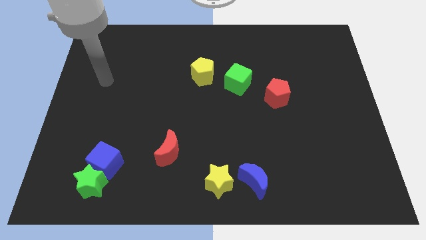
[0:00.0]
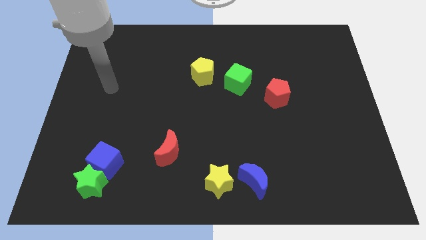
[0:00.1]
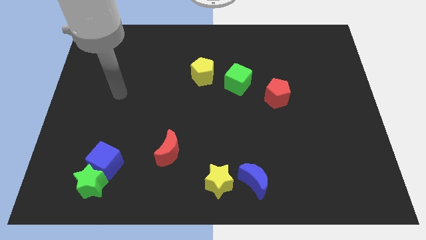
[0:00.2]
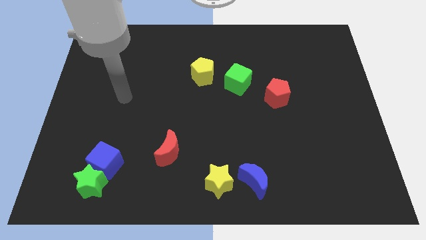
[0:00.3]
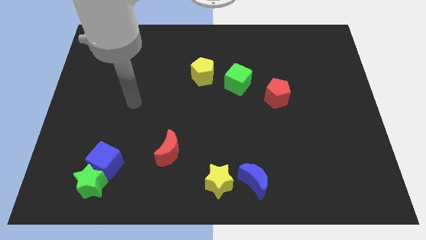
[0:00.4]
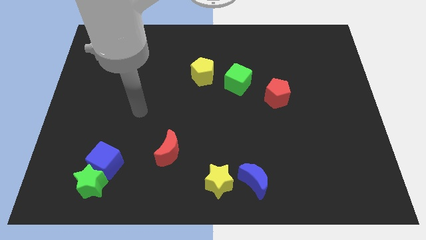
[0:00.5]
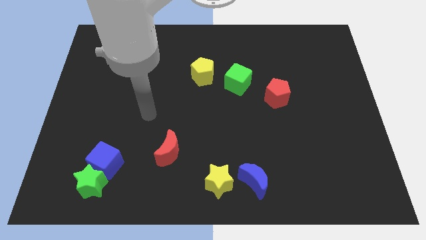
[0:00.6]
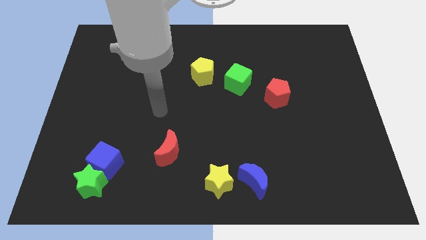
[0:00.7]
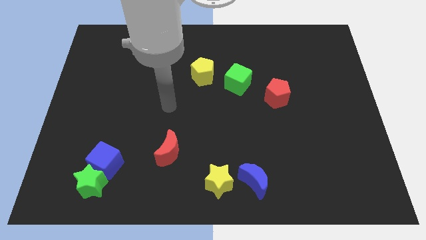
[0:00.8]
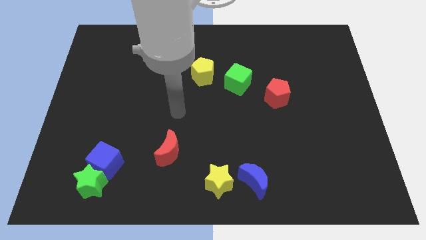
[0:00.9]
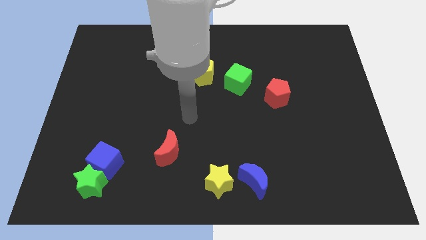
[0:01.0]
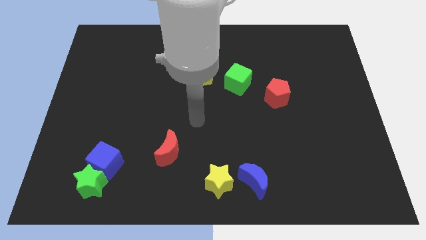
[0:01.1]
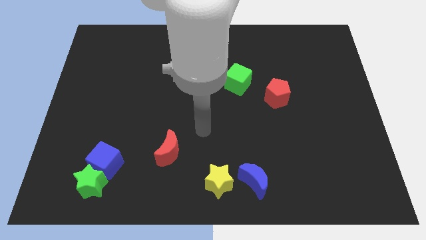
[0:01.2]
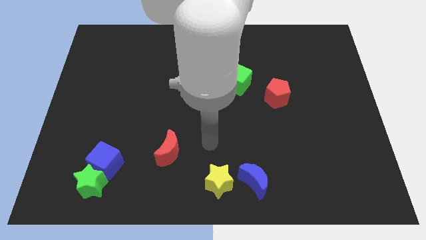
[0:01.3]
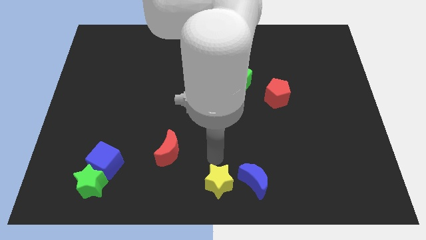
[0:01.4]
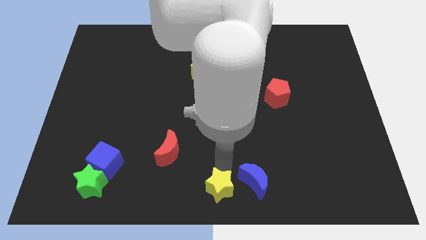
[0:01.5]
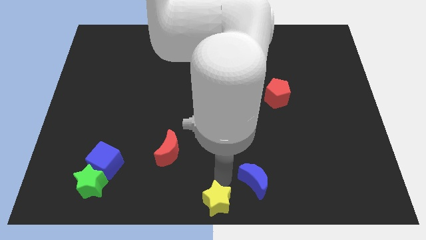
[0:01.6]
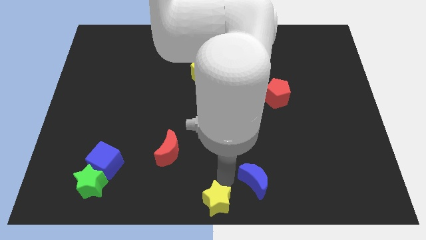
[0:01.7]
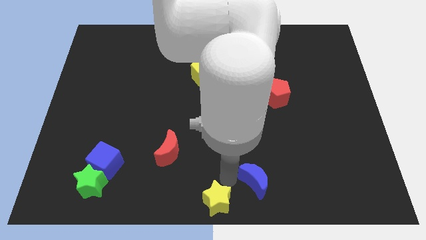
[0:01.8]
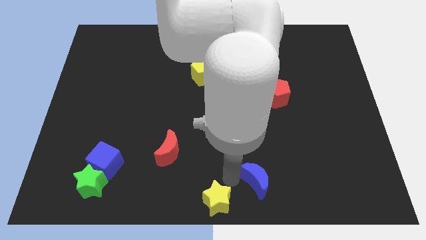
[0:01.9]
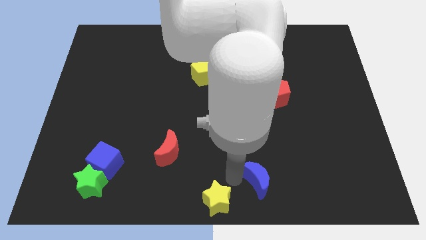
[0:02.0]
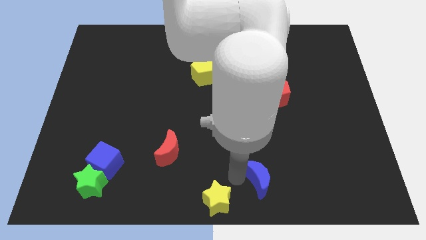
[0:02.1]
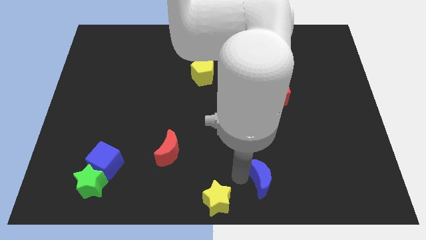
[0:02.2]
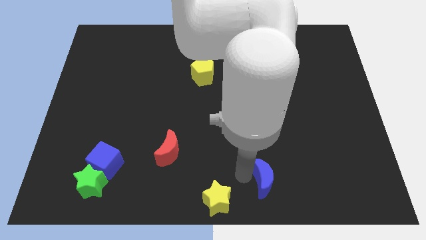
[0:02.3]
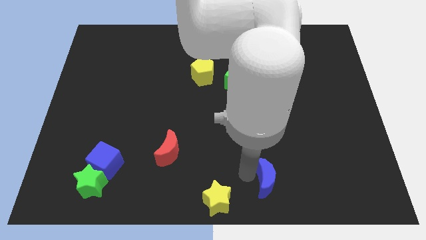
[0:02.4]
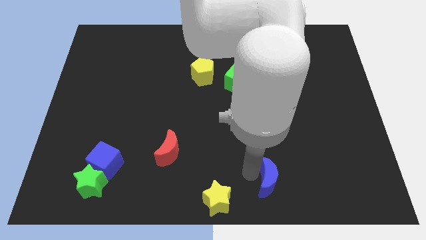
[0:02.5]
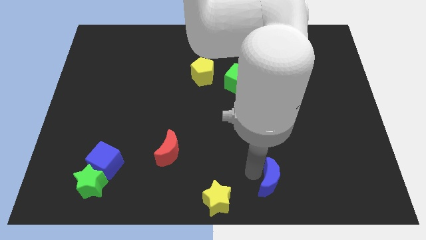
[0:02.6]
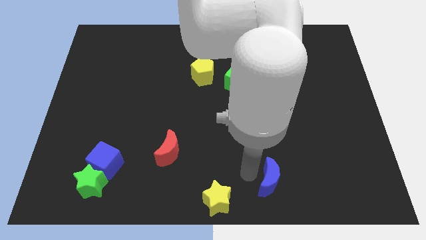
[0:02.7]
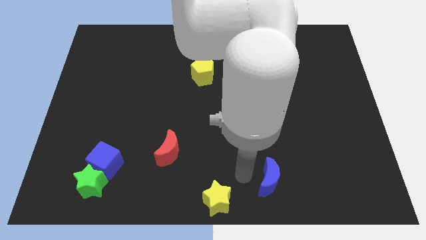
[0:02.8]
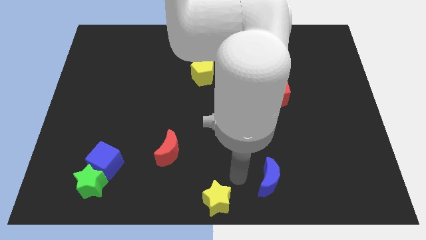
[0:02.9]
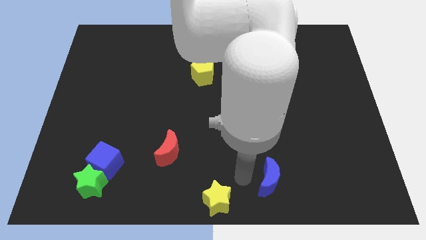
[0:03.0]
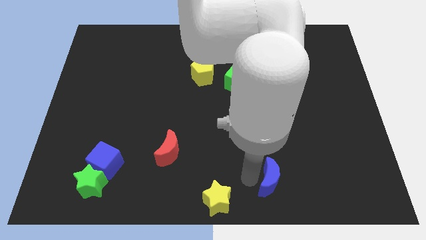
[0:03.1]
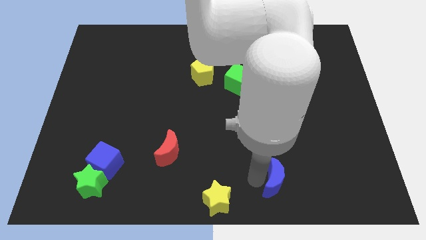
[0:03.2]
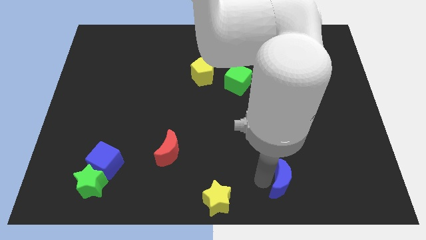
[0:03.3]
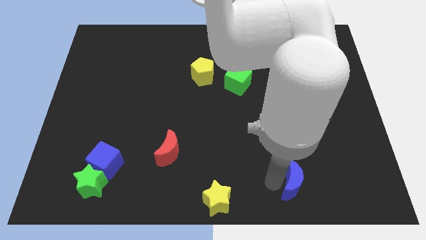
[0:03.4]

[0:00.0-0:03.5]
push the blue moon right somewhat

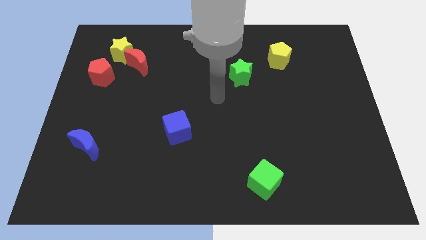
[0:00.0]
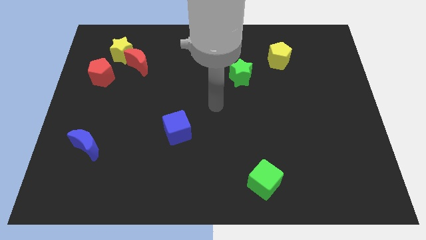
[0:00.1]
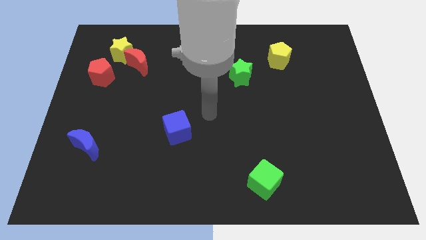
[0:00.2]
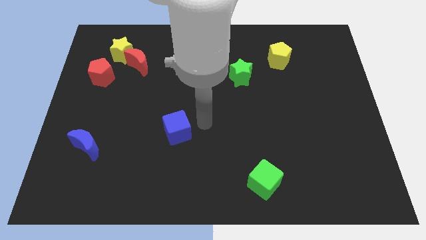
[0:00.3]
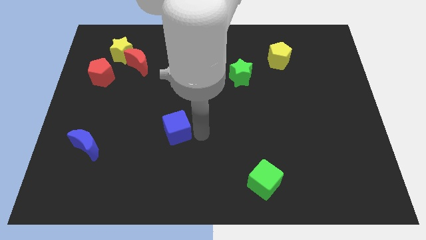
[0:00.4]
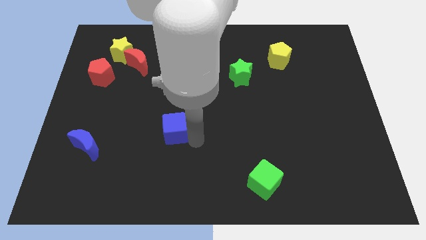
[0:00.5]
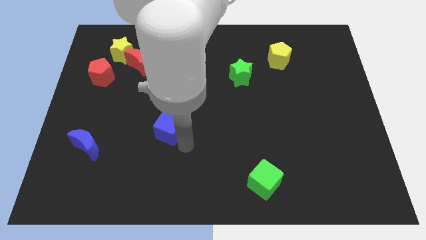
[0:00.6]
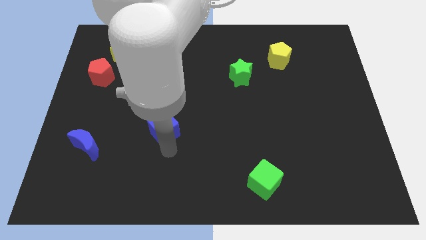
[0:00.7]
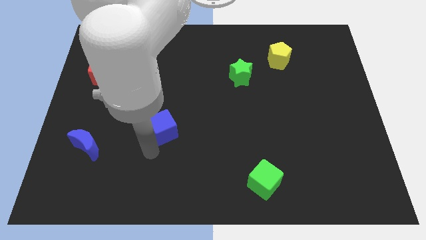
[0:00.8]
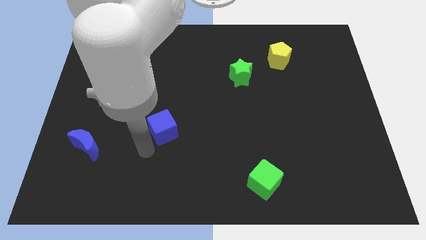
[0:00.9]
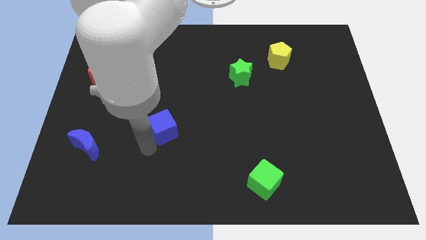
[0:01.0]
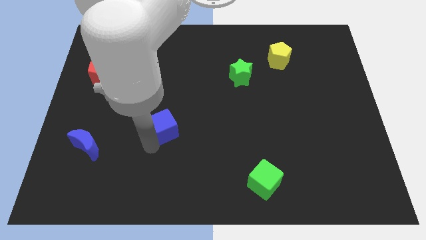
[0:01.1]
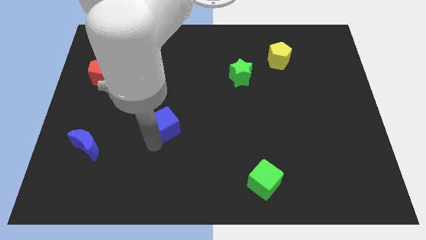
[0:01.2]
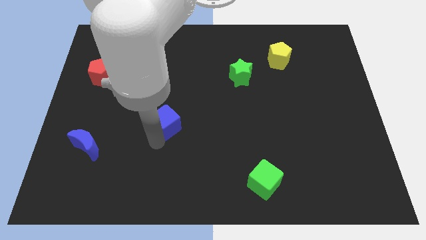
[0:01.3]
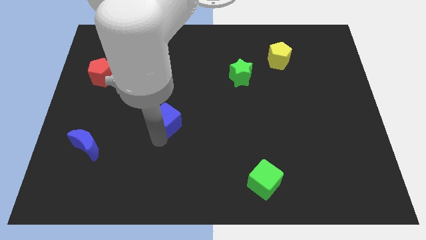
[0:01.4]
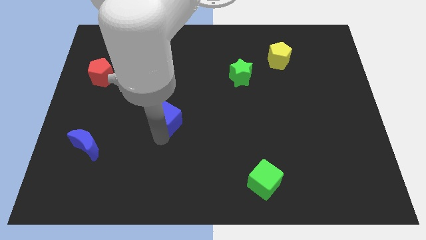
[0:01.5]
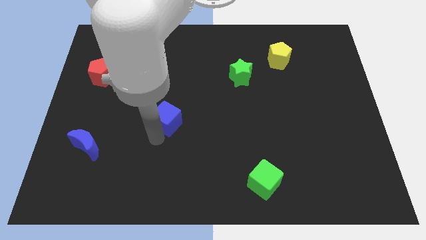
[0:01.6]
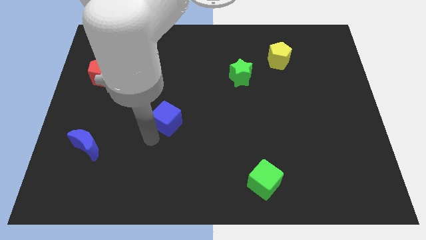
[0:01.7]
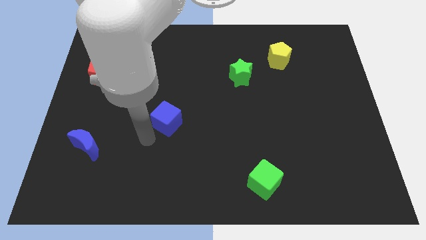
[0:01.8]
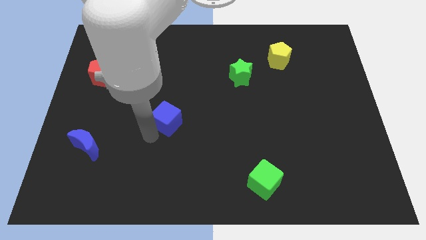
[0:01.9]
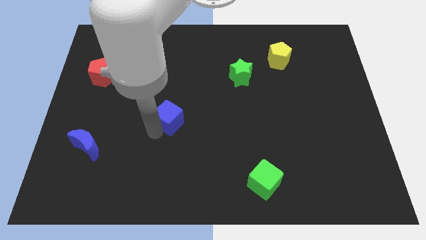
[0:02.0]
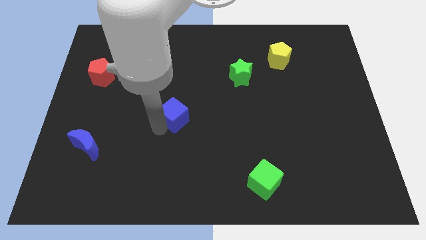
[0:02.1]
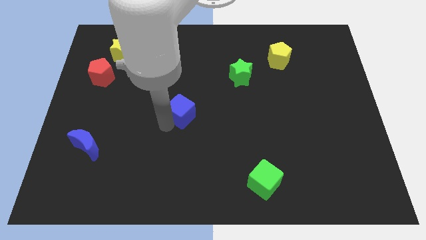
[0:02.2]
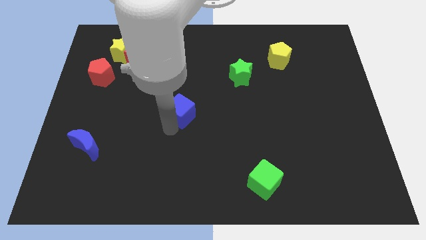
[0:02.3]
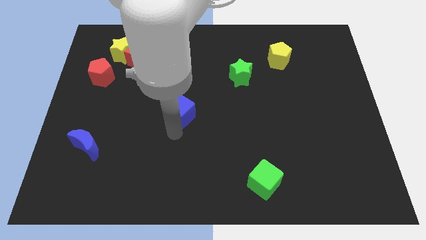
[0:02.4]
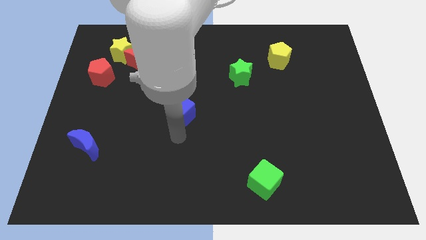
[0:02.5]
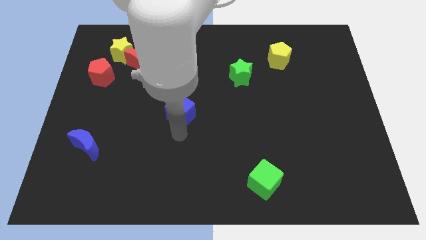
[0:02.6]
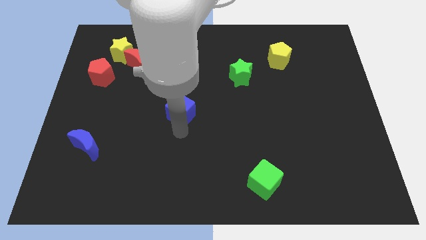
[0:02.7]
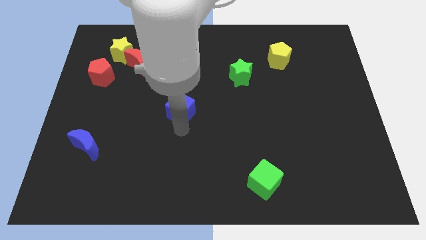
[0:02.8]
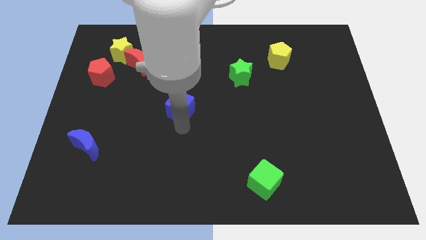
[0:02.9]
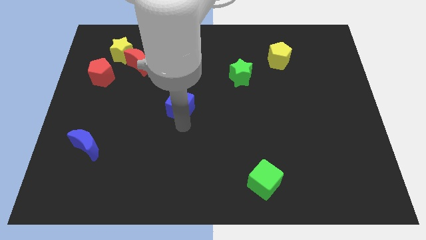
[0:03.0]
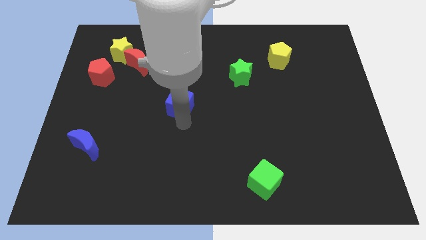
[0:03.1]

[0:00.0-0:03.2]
slightly move the blue cube up

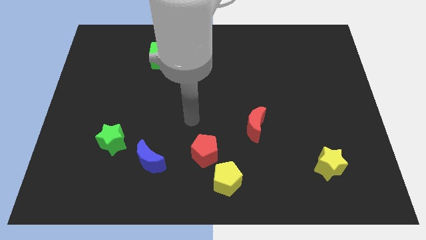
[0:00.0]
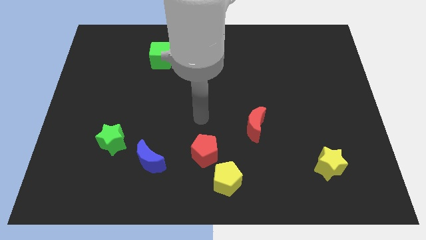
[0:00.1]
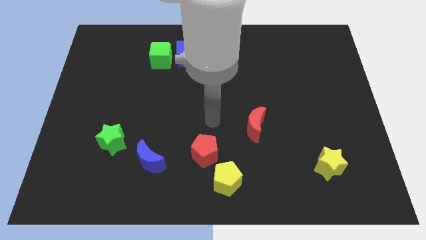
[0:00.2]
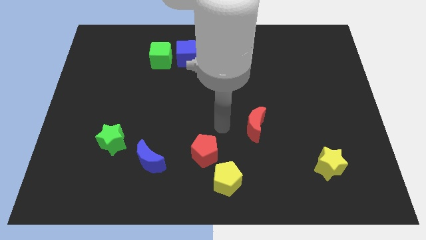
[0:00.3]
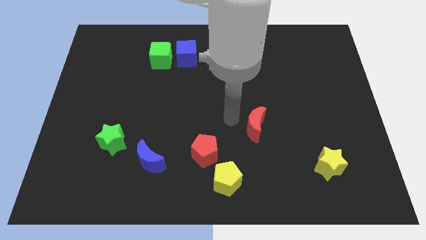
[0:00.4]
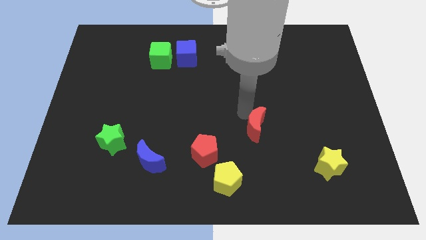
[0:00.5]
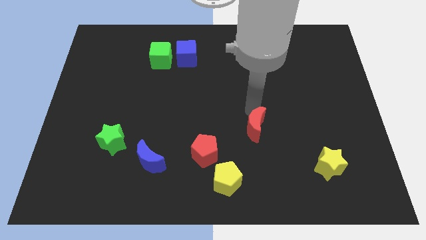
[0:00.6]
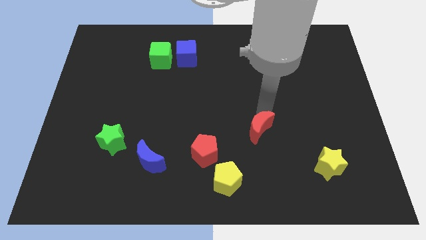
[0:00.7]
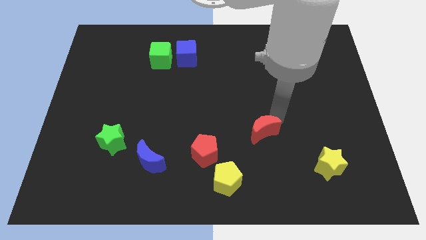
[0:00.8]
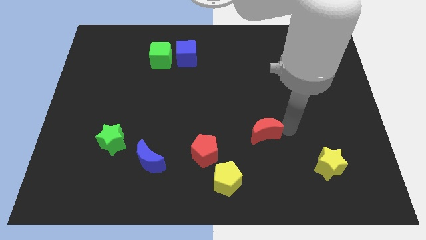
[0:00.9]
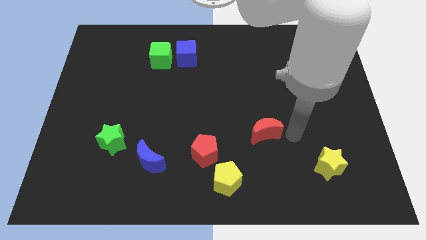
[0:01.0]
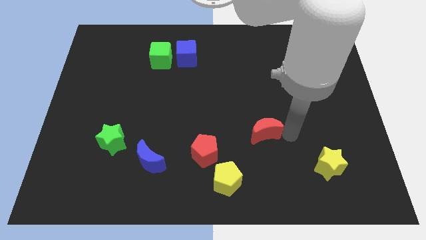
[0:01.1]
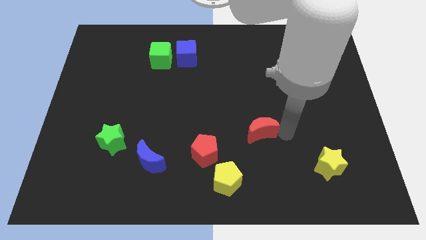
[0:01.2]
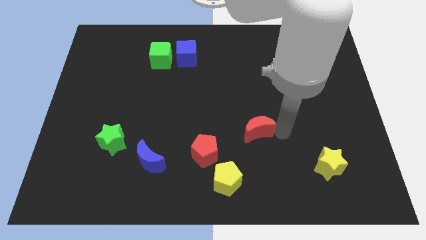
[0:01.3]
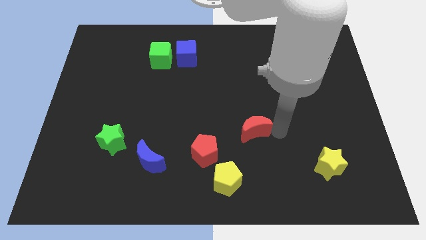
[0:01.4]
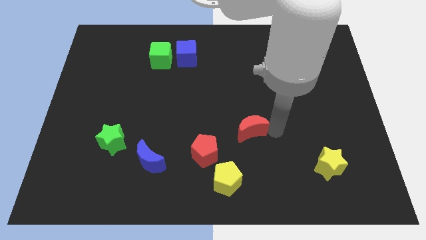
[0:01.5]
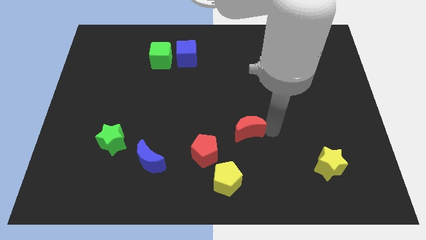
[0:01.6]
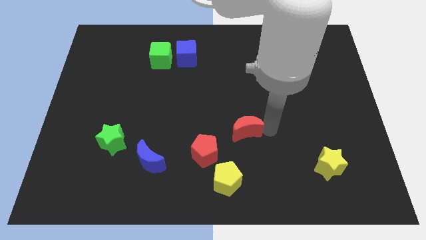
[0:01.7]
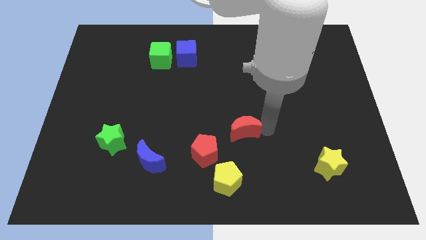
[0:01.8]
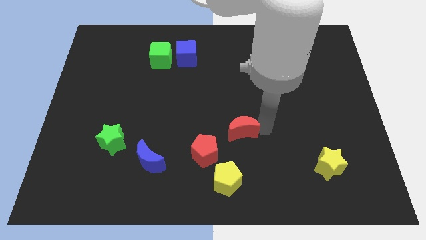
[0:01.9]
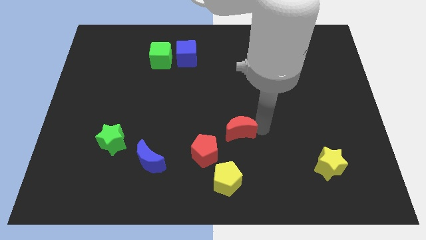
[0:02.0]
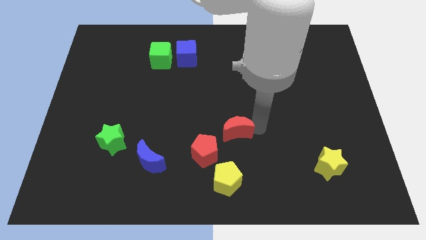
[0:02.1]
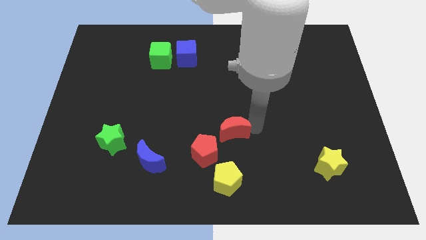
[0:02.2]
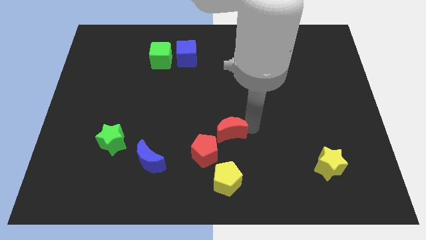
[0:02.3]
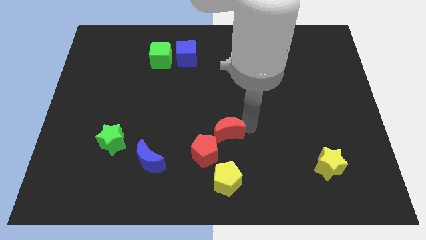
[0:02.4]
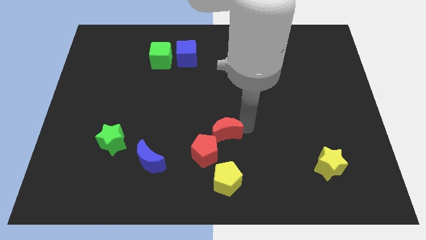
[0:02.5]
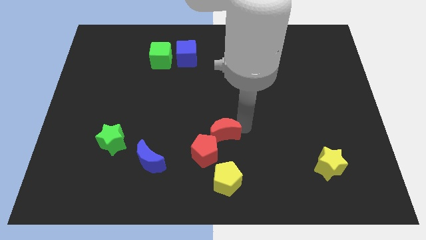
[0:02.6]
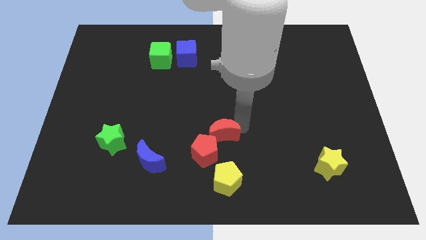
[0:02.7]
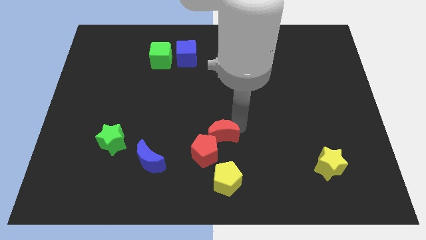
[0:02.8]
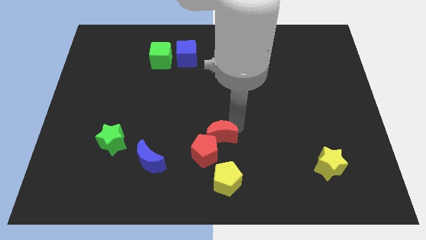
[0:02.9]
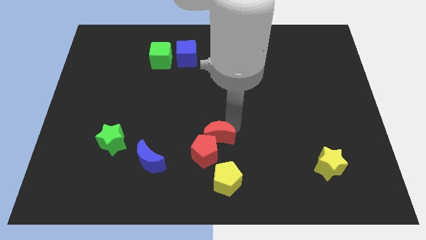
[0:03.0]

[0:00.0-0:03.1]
move the red moon a little bit downwards and to the left diagonally
